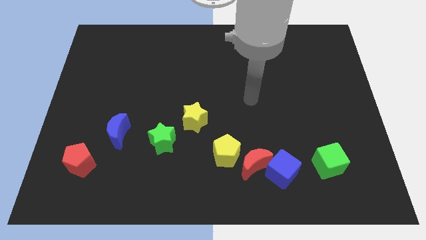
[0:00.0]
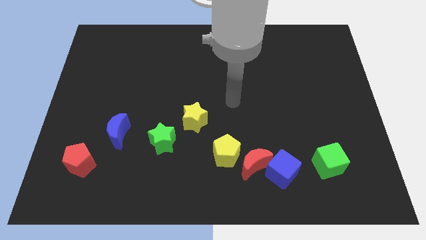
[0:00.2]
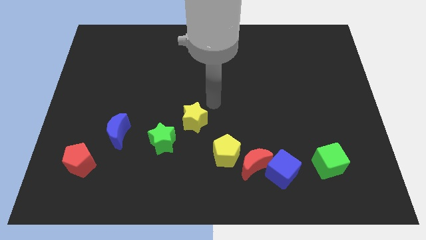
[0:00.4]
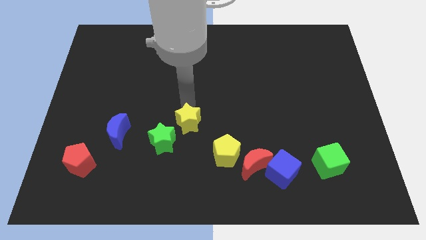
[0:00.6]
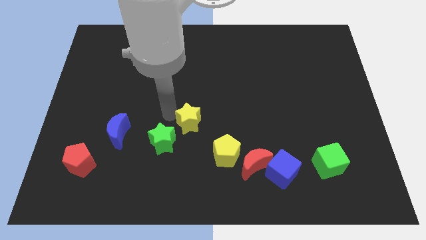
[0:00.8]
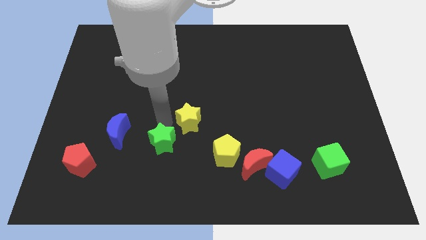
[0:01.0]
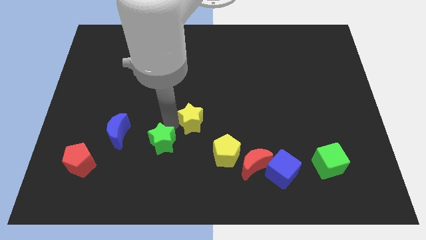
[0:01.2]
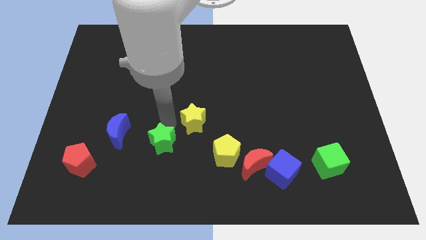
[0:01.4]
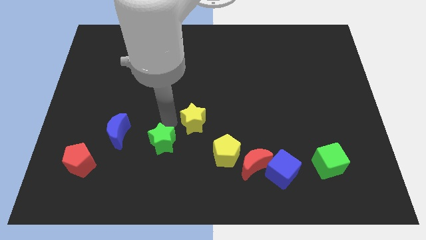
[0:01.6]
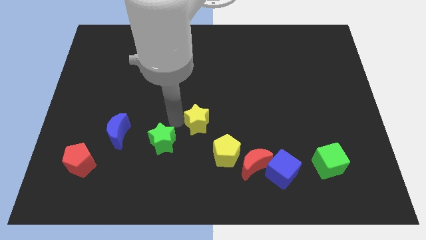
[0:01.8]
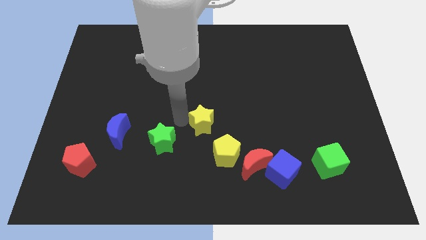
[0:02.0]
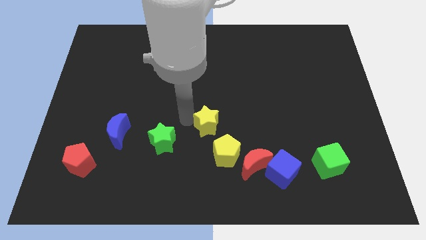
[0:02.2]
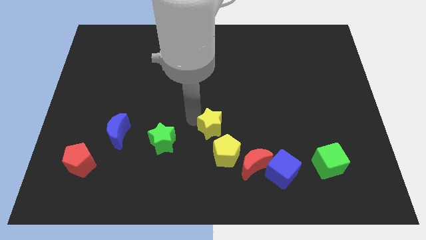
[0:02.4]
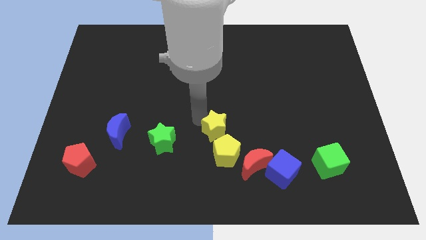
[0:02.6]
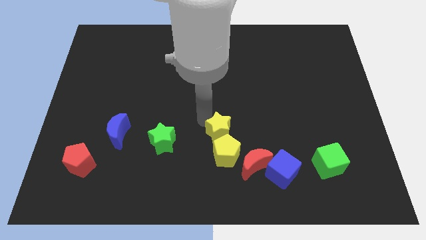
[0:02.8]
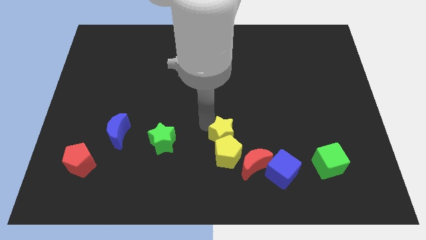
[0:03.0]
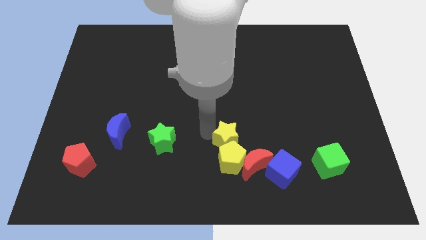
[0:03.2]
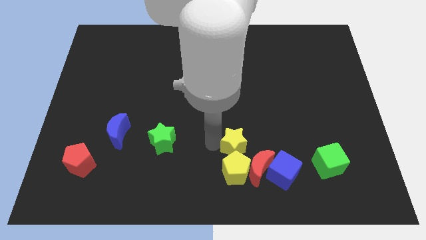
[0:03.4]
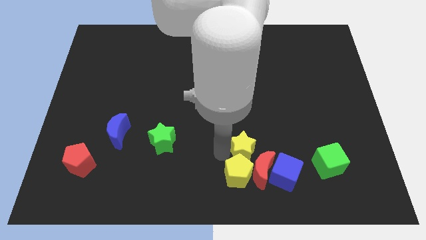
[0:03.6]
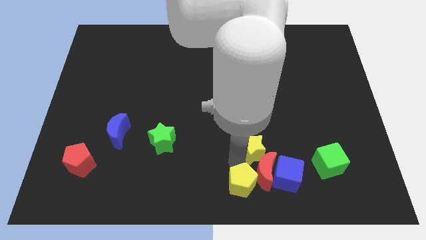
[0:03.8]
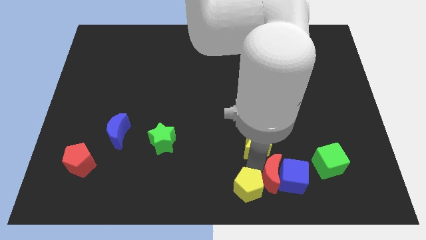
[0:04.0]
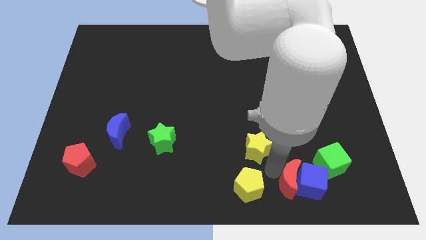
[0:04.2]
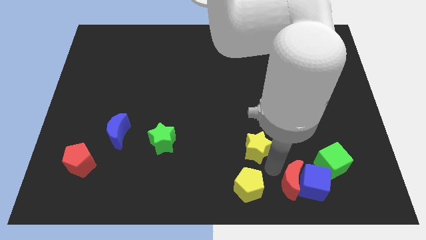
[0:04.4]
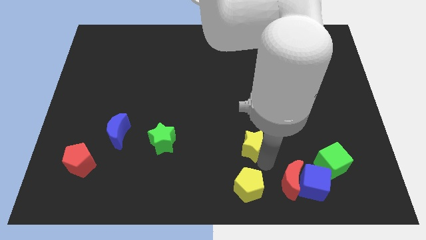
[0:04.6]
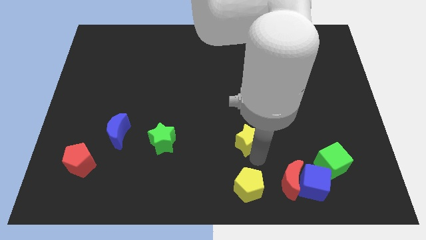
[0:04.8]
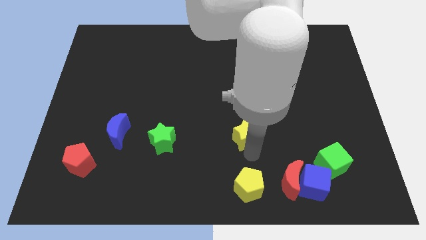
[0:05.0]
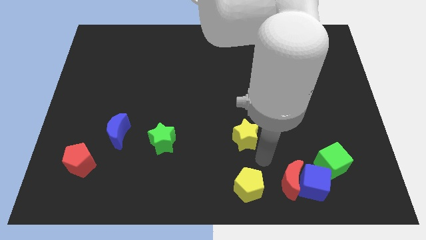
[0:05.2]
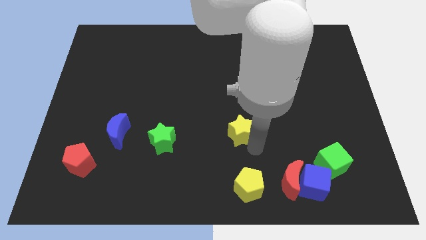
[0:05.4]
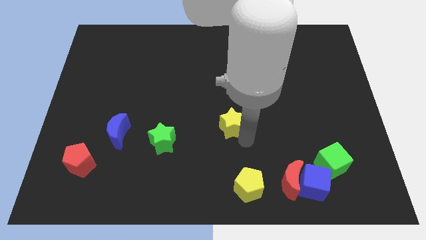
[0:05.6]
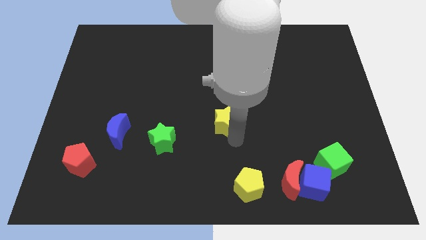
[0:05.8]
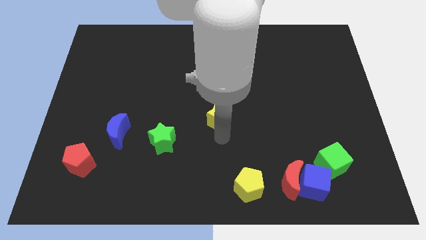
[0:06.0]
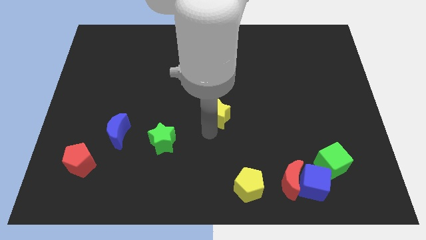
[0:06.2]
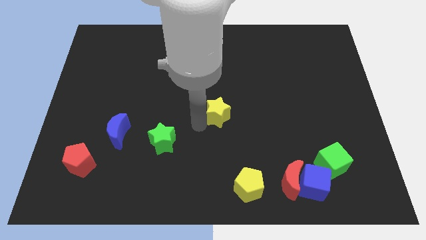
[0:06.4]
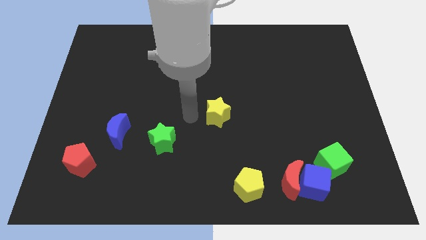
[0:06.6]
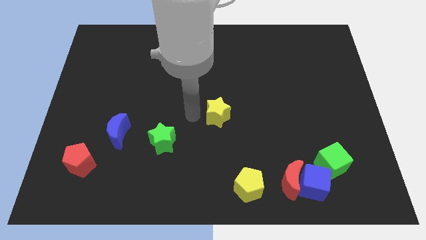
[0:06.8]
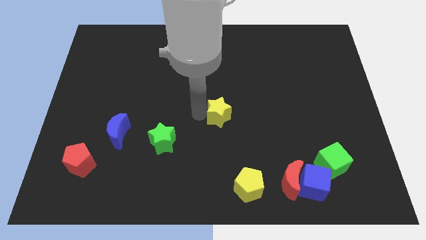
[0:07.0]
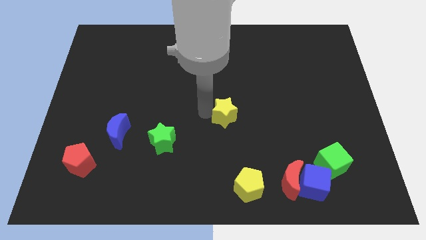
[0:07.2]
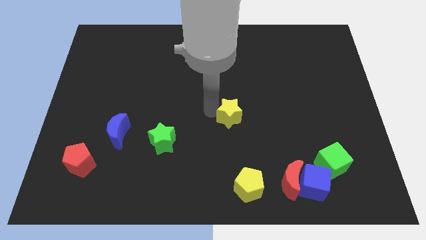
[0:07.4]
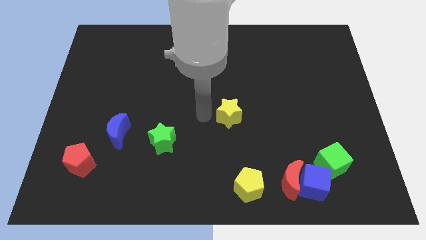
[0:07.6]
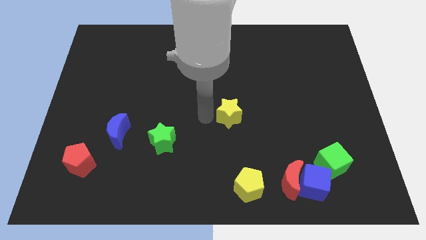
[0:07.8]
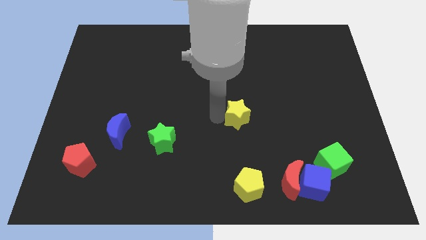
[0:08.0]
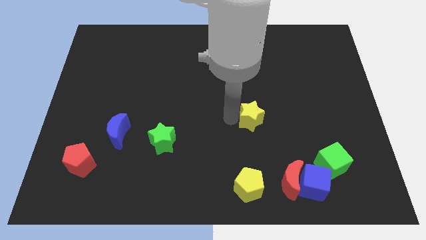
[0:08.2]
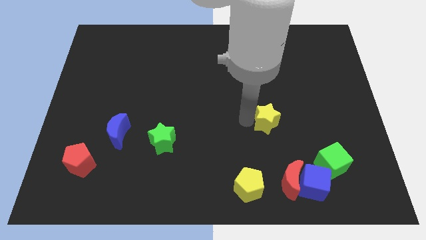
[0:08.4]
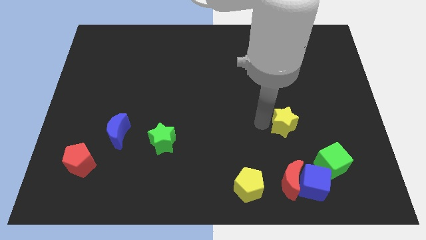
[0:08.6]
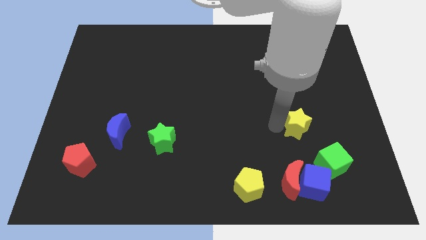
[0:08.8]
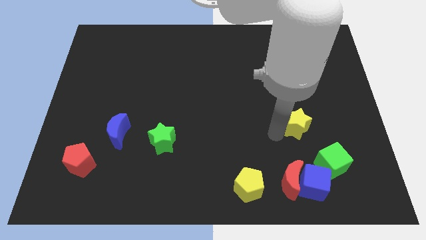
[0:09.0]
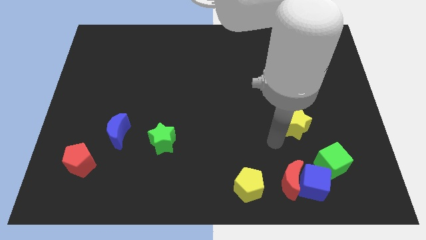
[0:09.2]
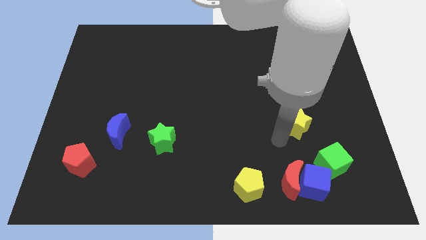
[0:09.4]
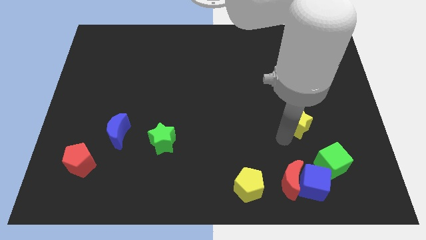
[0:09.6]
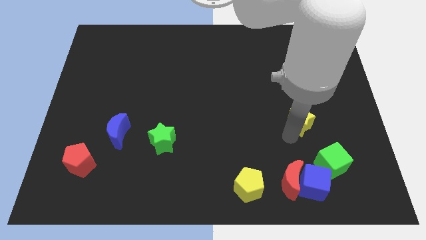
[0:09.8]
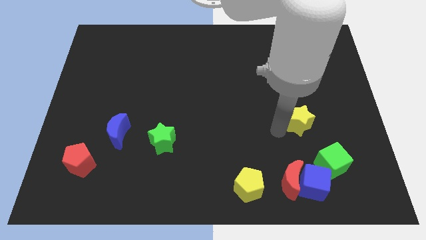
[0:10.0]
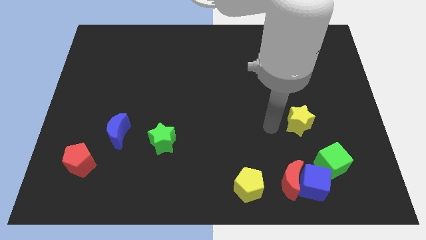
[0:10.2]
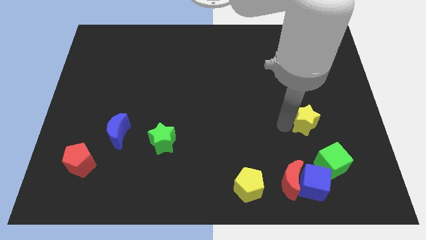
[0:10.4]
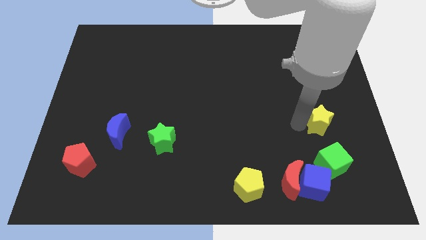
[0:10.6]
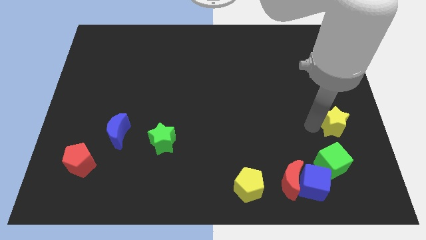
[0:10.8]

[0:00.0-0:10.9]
push the yellow star to the right side

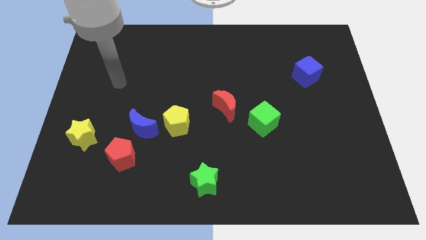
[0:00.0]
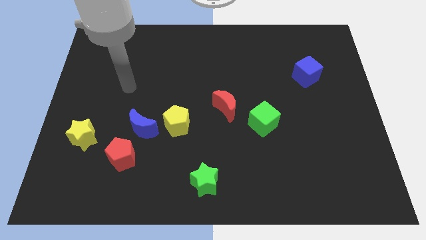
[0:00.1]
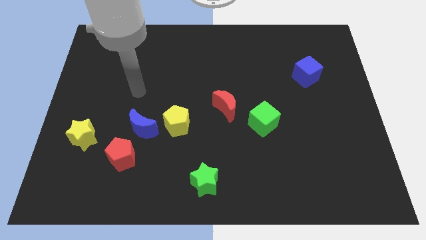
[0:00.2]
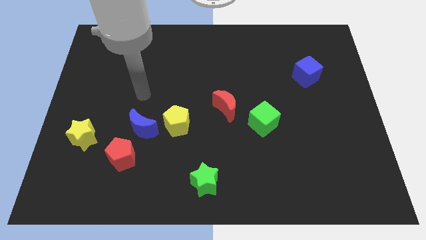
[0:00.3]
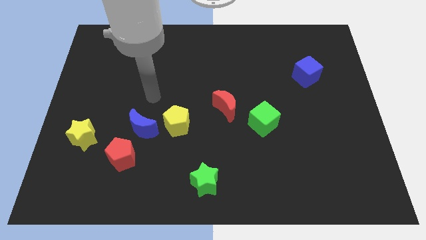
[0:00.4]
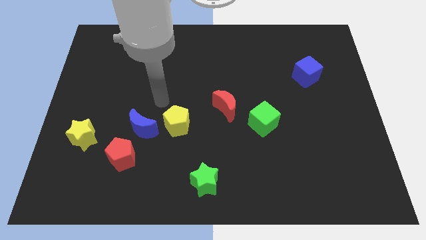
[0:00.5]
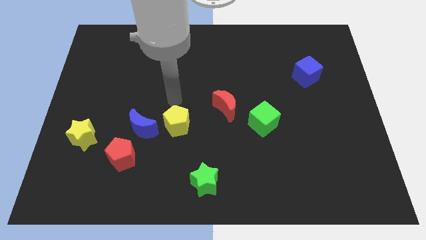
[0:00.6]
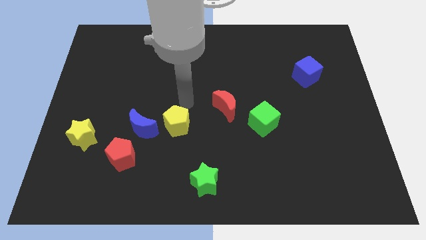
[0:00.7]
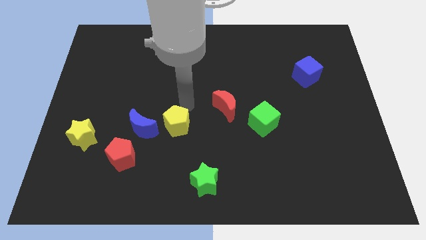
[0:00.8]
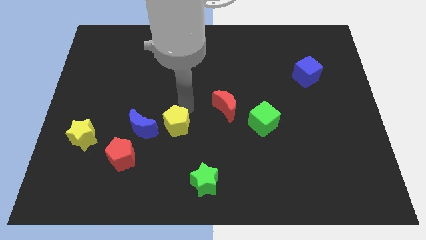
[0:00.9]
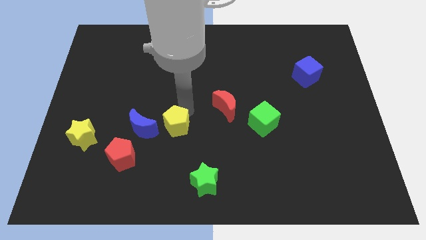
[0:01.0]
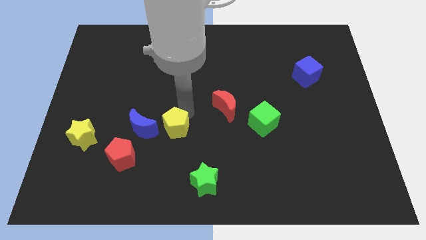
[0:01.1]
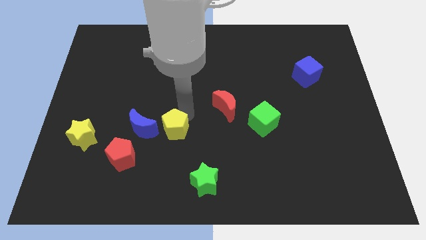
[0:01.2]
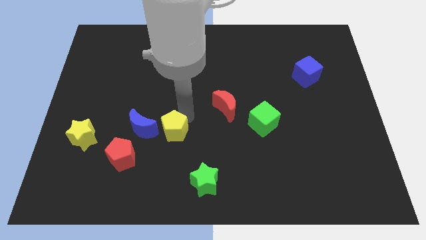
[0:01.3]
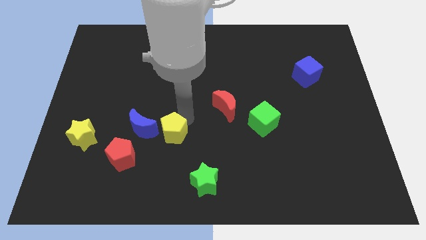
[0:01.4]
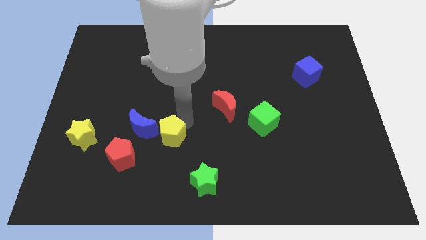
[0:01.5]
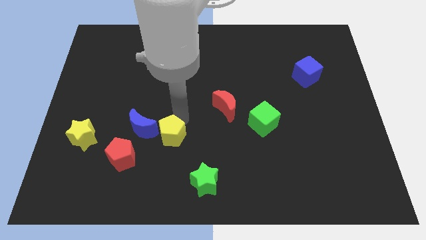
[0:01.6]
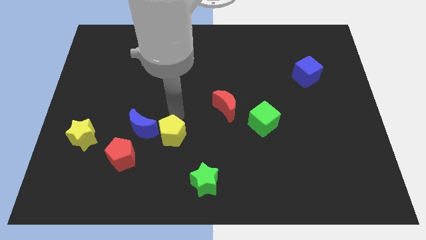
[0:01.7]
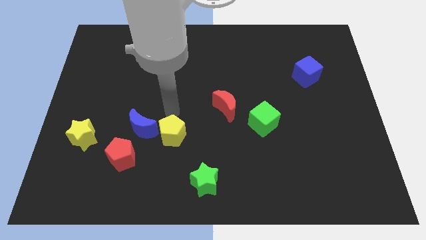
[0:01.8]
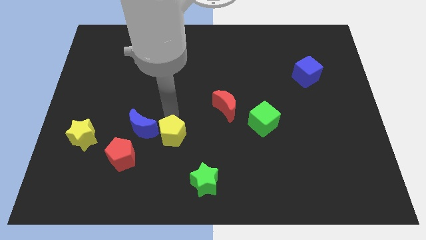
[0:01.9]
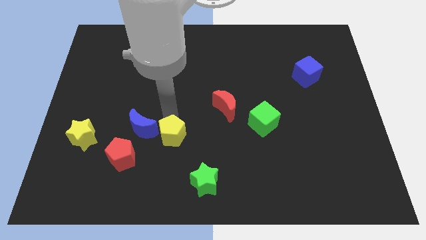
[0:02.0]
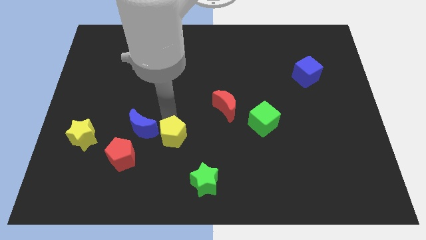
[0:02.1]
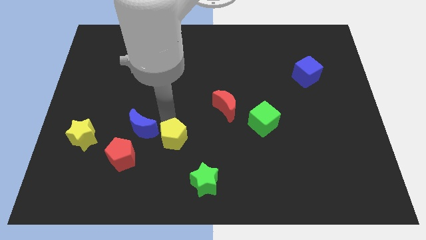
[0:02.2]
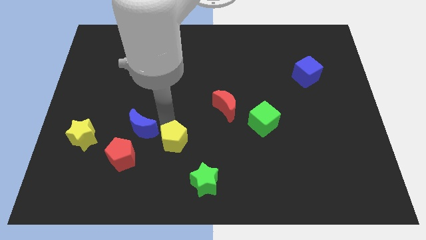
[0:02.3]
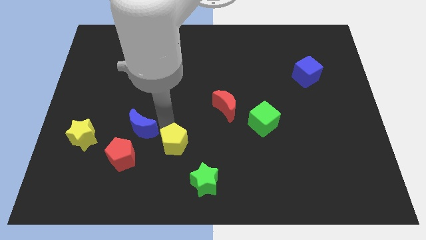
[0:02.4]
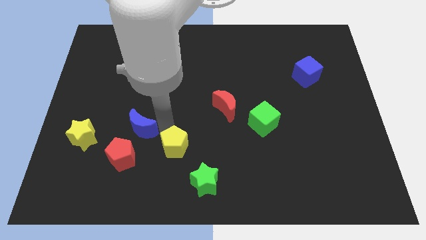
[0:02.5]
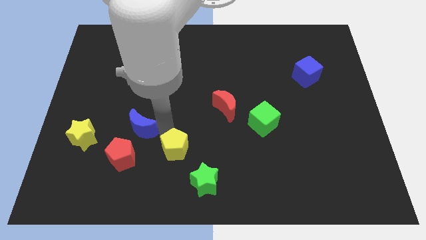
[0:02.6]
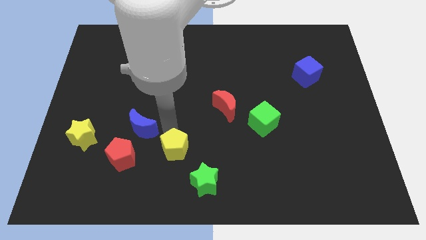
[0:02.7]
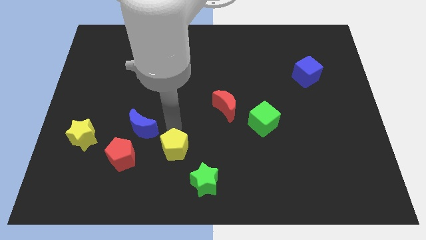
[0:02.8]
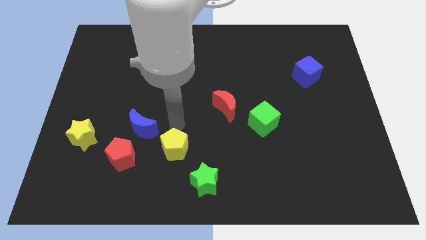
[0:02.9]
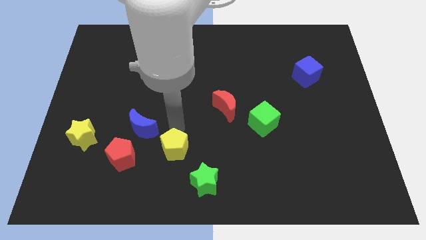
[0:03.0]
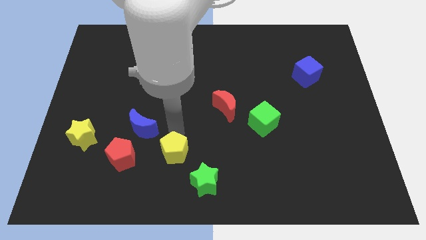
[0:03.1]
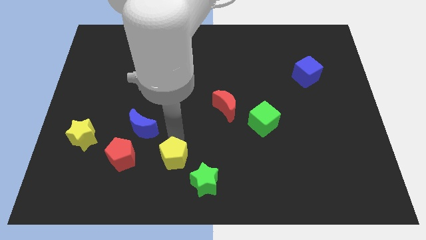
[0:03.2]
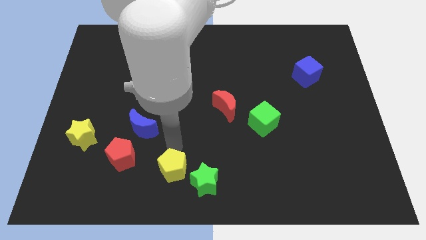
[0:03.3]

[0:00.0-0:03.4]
put the yellow pentagon to the bottom
